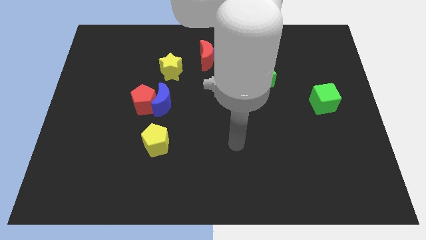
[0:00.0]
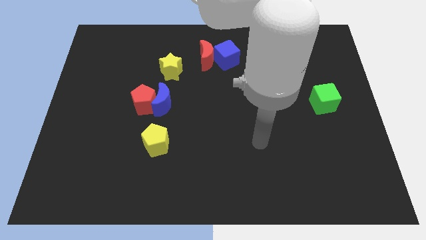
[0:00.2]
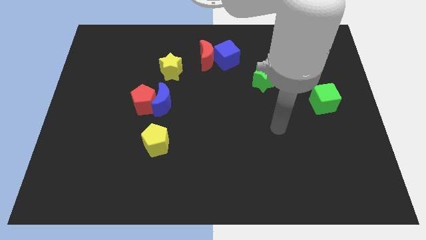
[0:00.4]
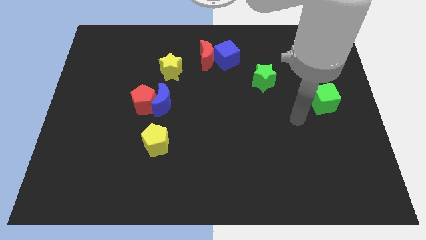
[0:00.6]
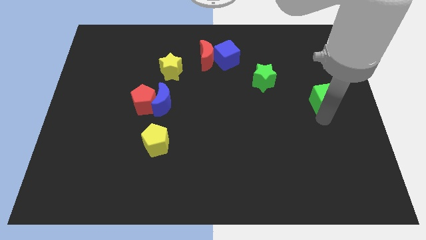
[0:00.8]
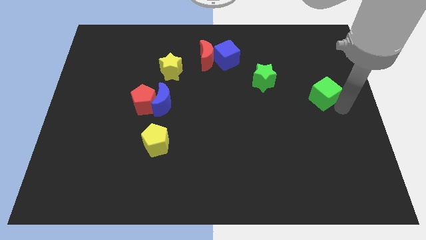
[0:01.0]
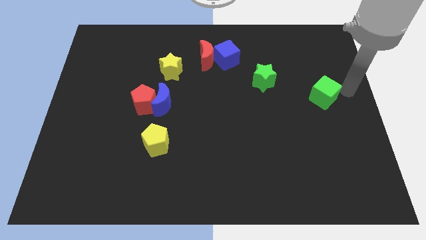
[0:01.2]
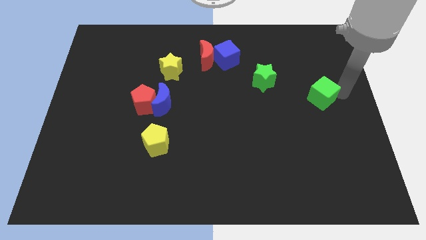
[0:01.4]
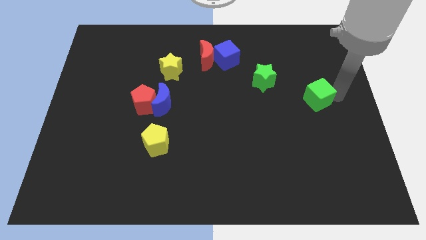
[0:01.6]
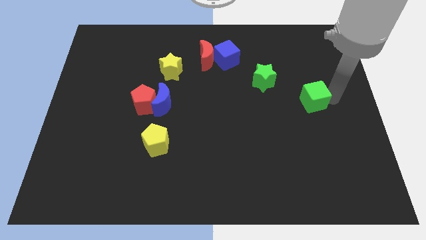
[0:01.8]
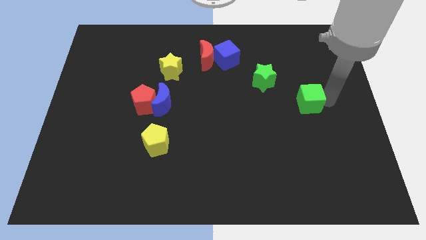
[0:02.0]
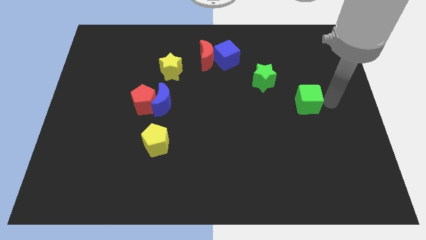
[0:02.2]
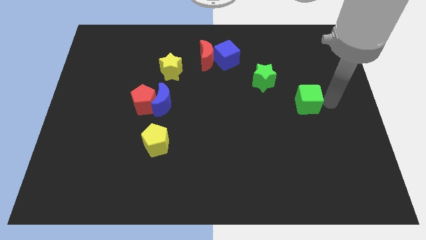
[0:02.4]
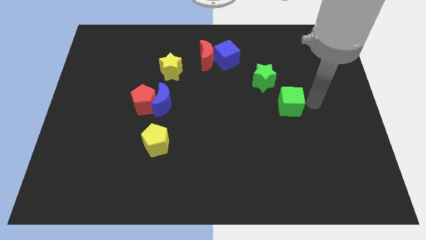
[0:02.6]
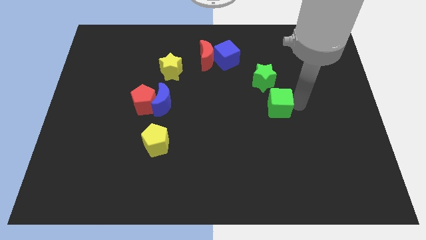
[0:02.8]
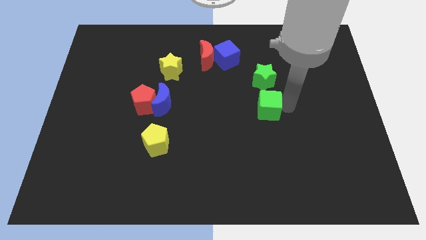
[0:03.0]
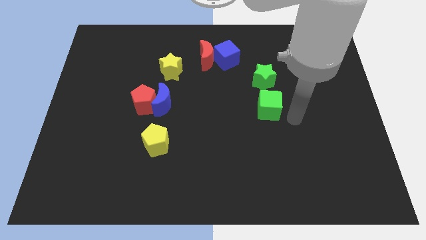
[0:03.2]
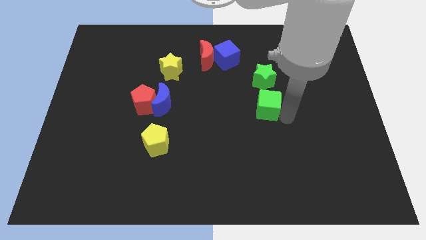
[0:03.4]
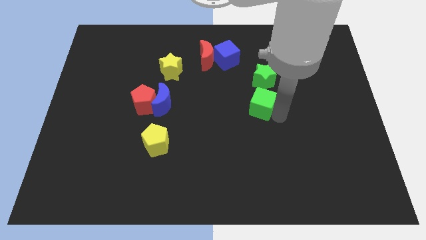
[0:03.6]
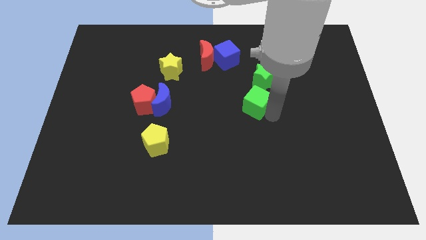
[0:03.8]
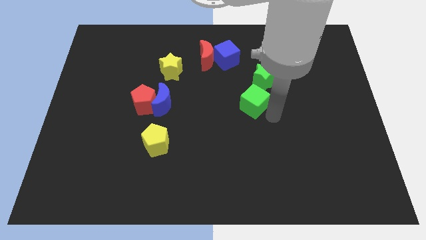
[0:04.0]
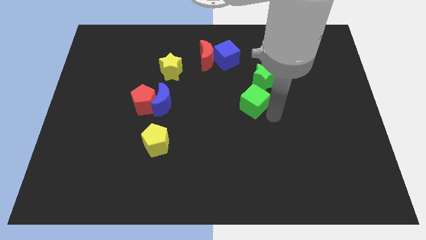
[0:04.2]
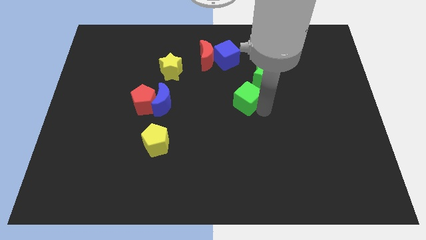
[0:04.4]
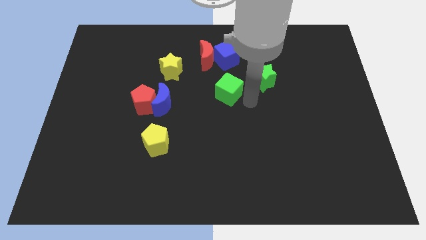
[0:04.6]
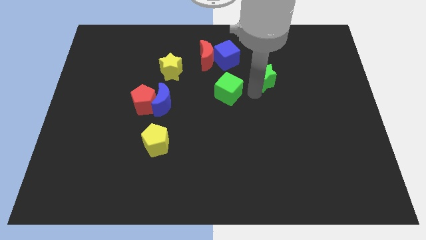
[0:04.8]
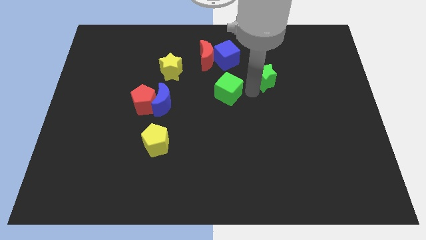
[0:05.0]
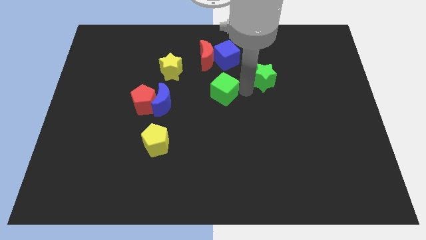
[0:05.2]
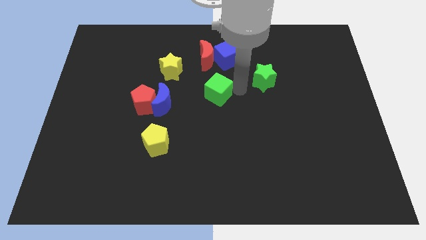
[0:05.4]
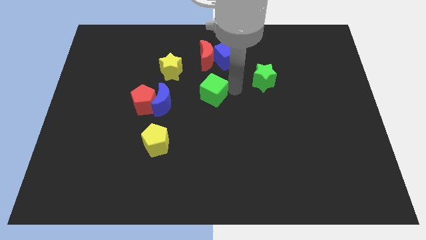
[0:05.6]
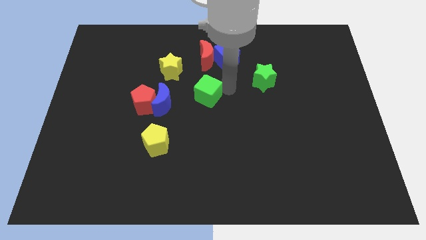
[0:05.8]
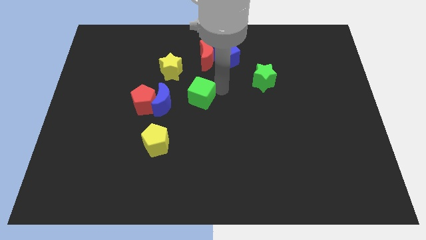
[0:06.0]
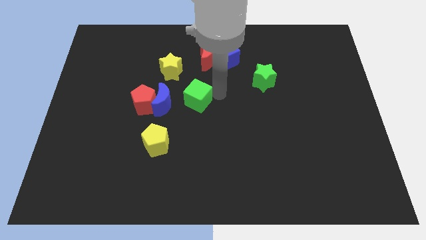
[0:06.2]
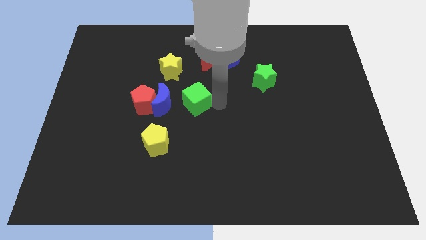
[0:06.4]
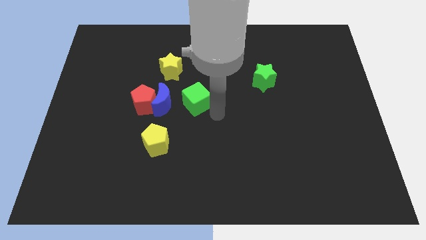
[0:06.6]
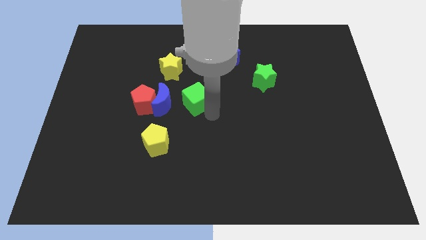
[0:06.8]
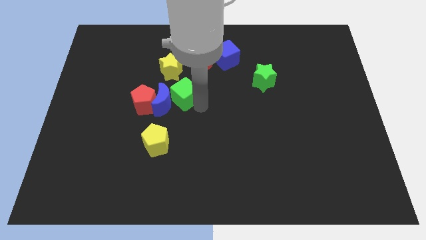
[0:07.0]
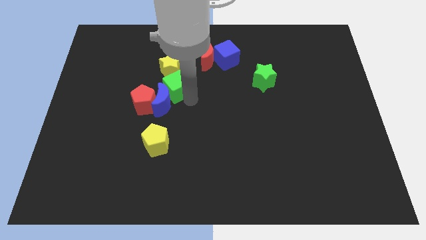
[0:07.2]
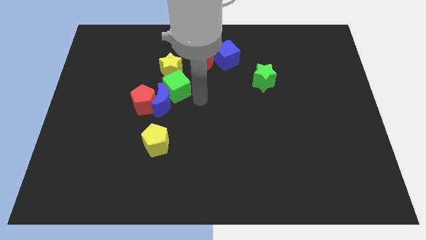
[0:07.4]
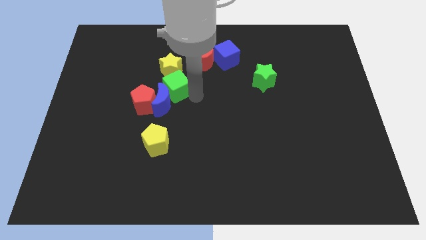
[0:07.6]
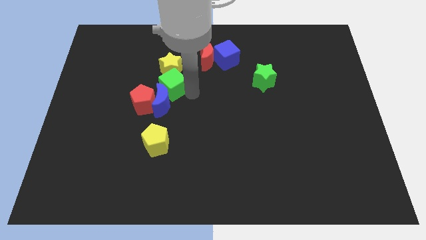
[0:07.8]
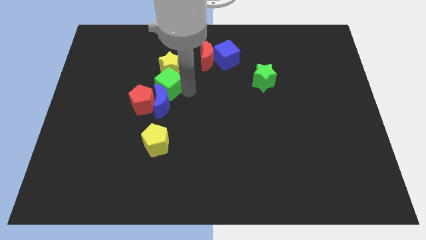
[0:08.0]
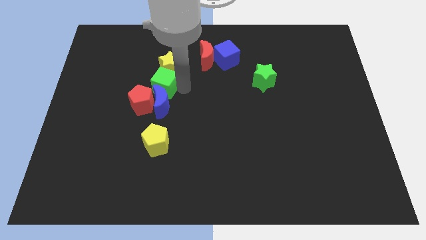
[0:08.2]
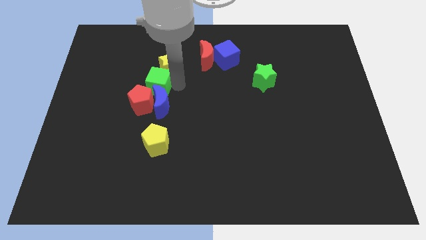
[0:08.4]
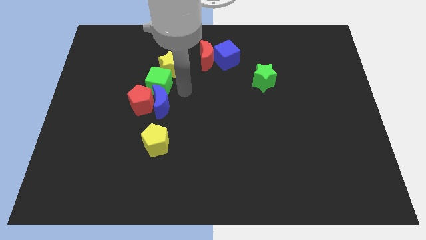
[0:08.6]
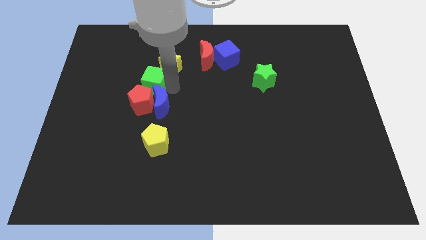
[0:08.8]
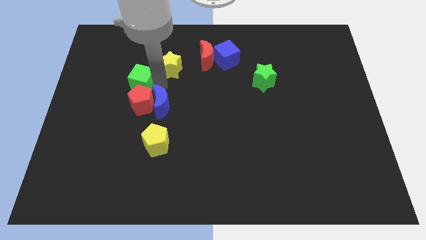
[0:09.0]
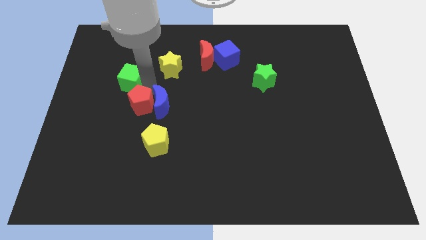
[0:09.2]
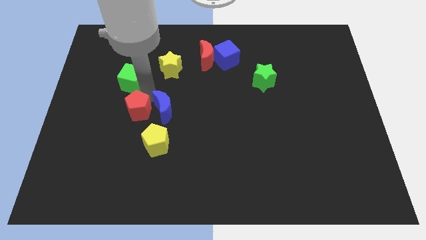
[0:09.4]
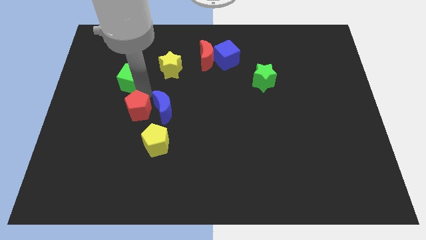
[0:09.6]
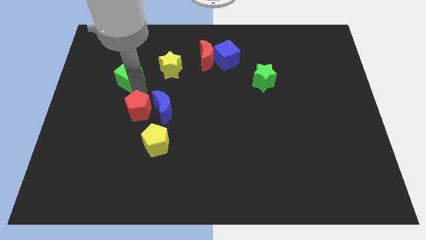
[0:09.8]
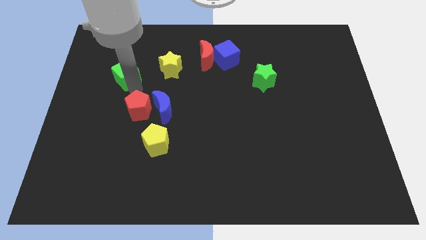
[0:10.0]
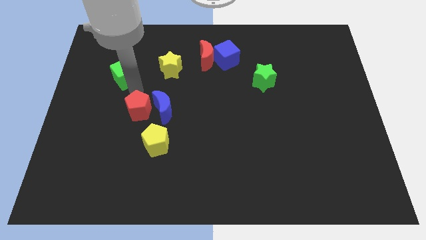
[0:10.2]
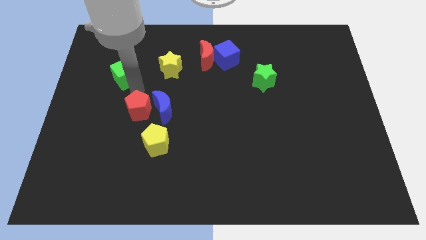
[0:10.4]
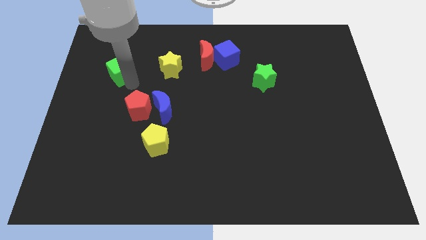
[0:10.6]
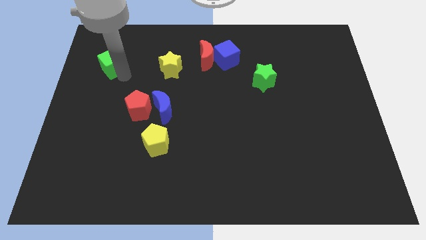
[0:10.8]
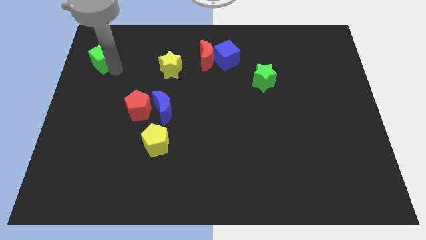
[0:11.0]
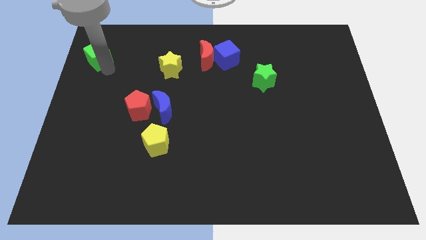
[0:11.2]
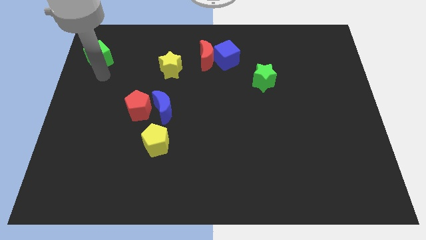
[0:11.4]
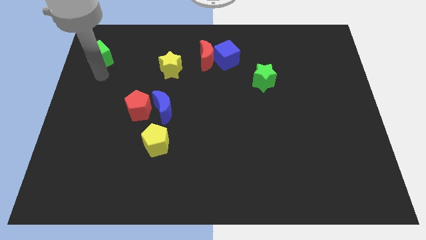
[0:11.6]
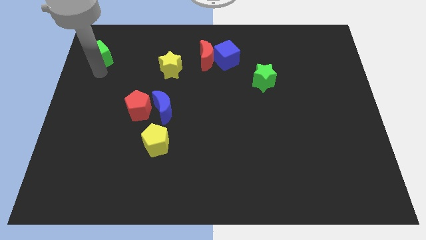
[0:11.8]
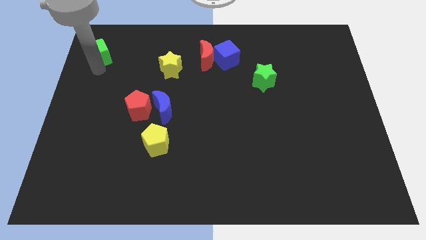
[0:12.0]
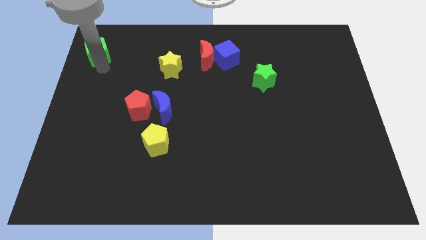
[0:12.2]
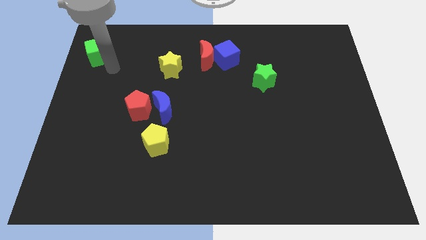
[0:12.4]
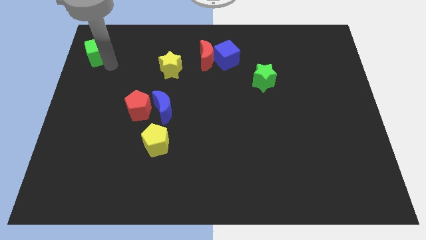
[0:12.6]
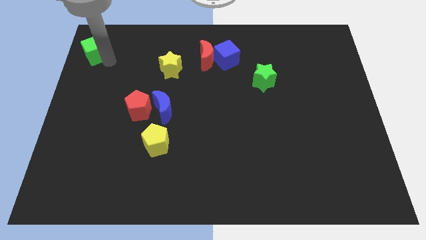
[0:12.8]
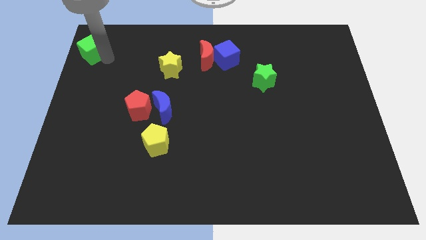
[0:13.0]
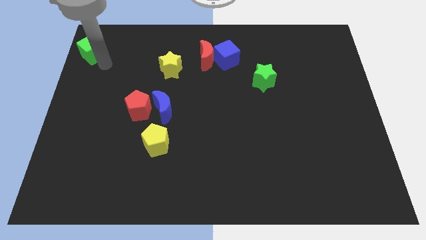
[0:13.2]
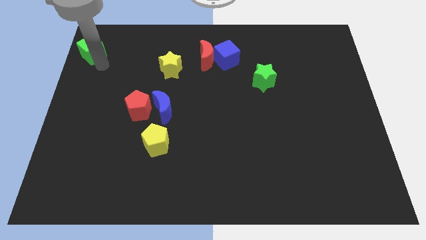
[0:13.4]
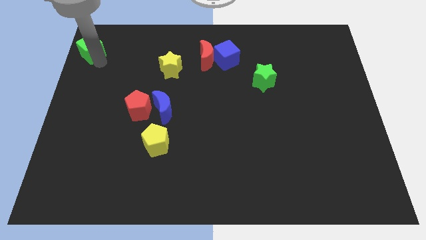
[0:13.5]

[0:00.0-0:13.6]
push the green cube to the top left corner
